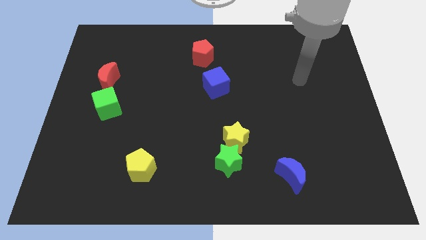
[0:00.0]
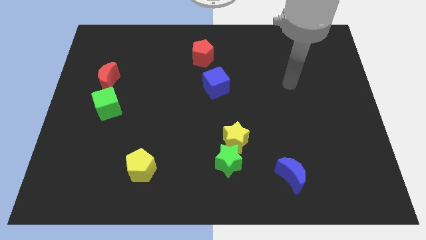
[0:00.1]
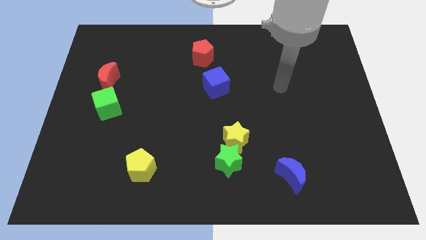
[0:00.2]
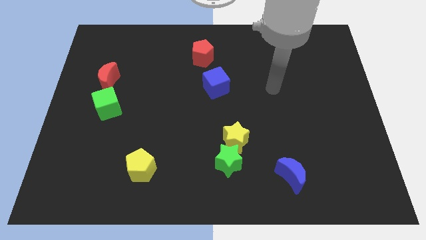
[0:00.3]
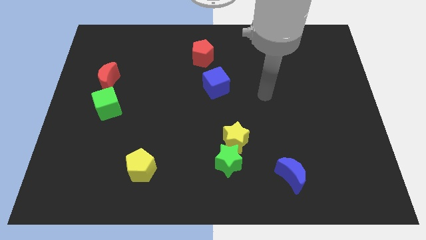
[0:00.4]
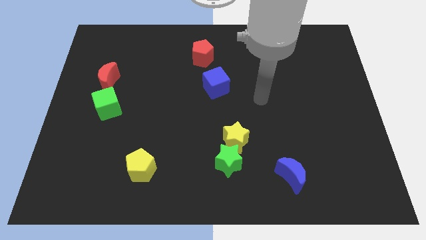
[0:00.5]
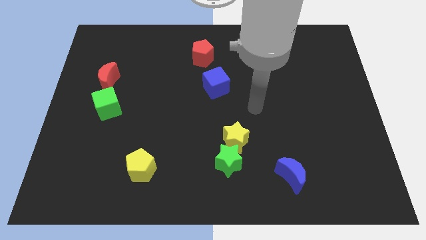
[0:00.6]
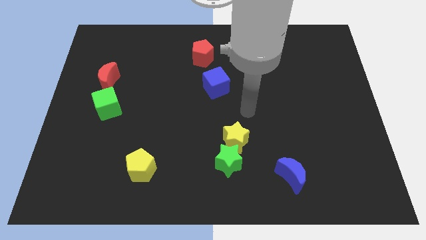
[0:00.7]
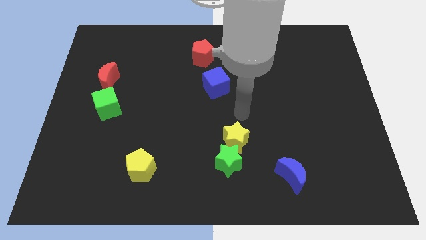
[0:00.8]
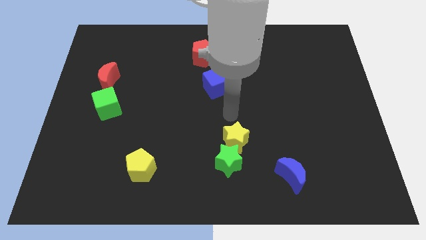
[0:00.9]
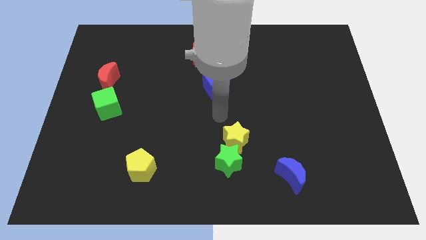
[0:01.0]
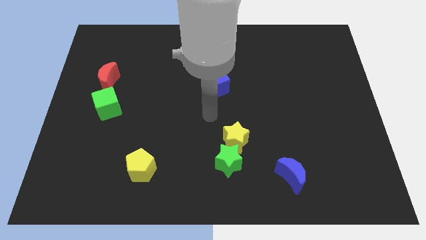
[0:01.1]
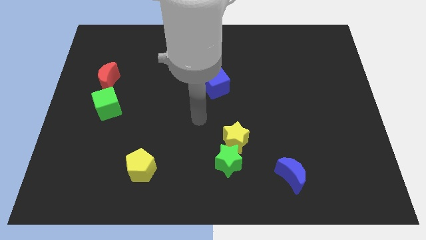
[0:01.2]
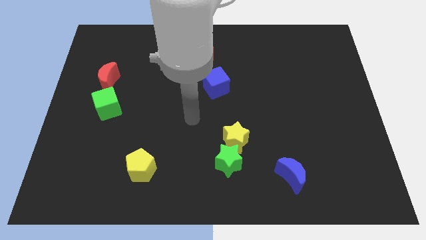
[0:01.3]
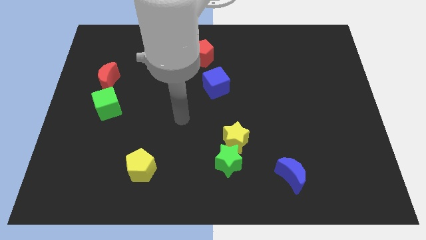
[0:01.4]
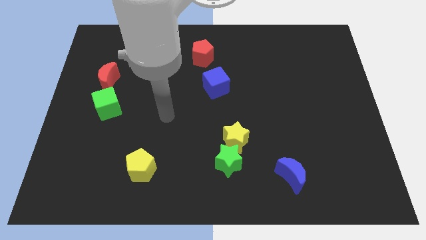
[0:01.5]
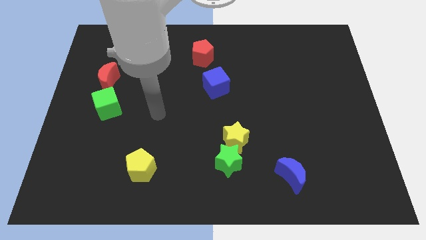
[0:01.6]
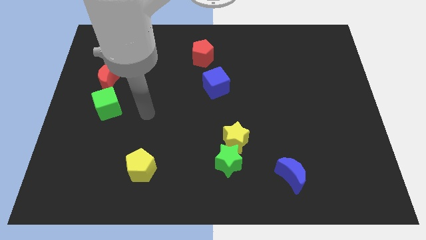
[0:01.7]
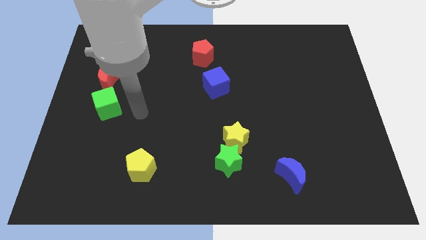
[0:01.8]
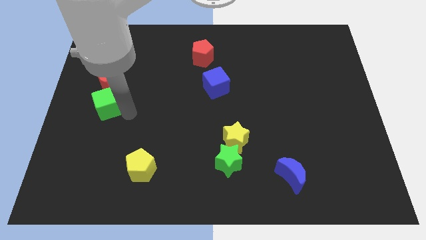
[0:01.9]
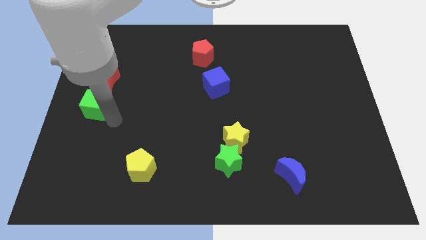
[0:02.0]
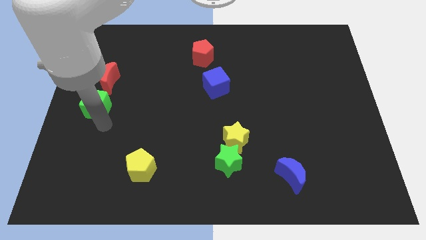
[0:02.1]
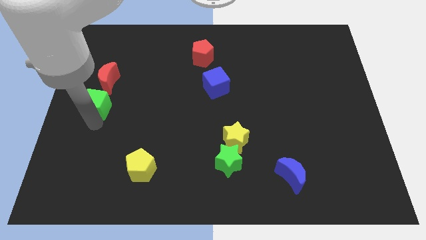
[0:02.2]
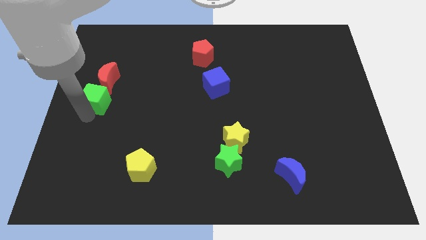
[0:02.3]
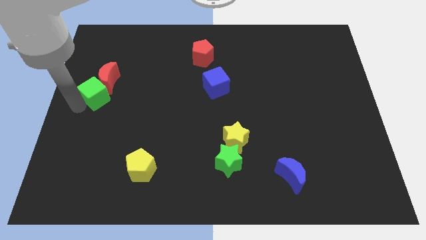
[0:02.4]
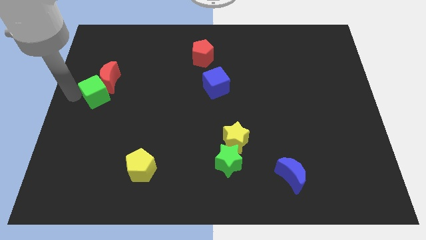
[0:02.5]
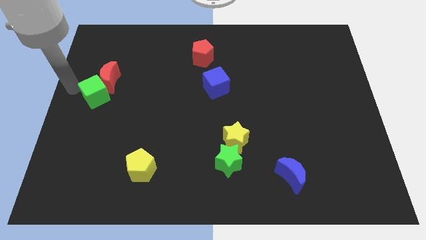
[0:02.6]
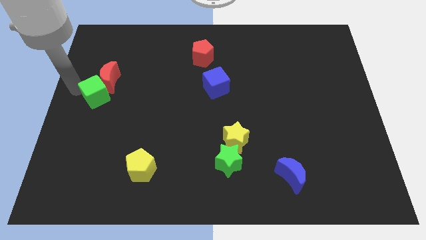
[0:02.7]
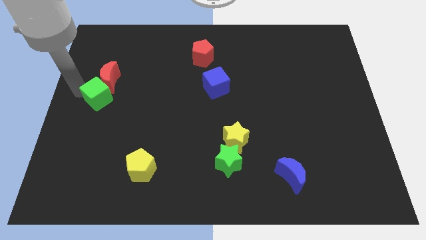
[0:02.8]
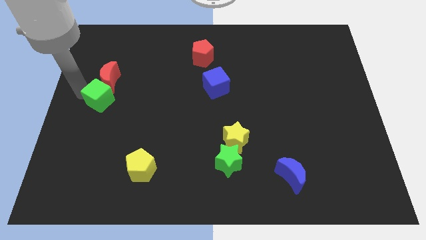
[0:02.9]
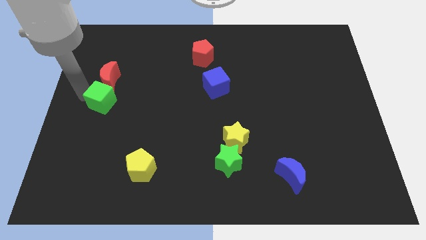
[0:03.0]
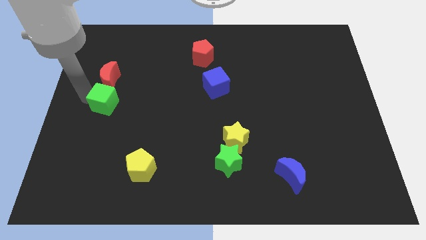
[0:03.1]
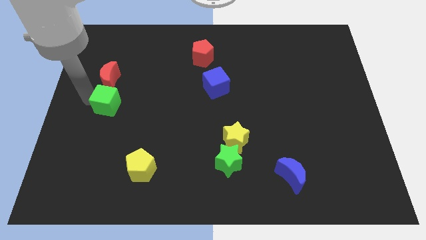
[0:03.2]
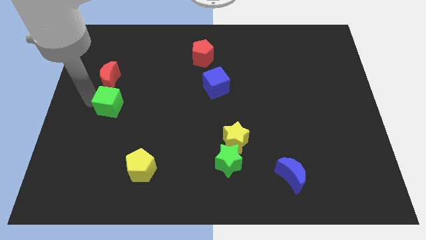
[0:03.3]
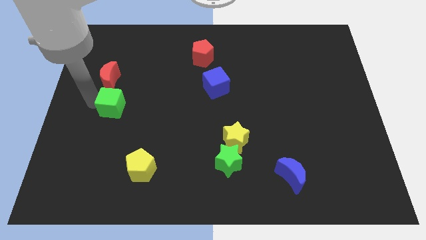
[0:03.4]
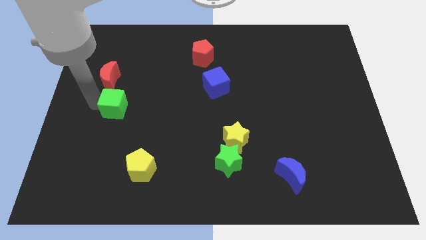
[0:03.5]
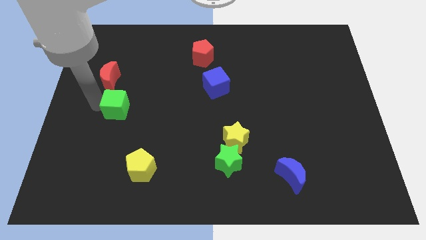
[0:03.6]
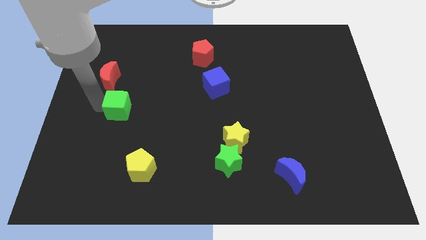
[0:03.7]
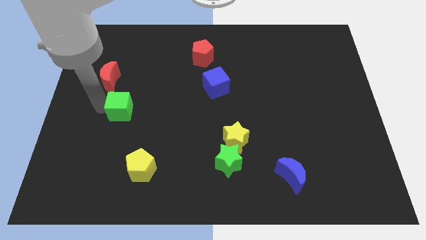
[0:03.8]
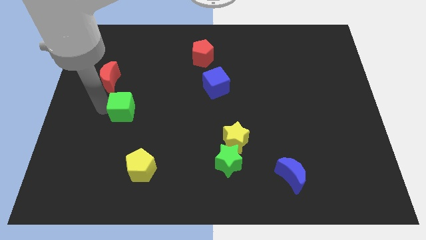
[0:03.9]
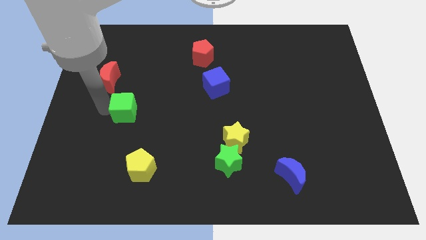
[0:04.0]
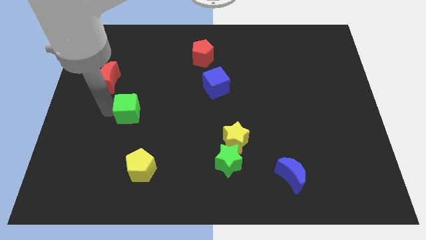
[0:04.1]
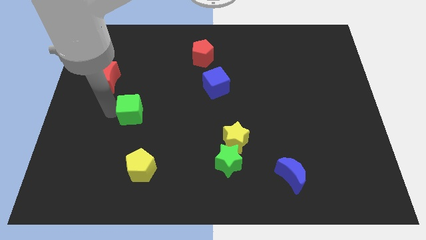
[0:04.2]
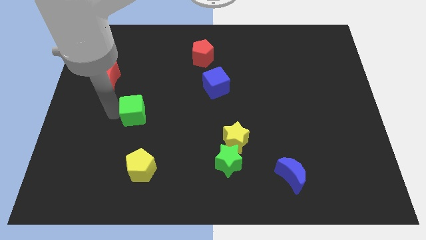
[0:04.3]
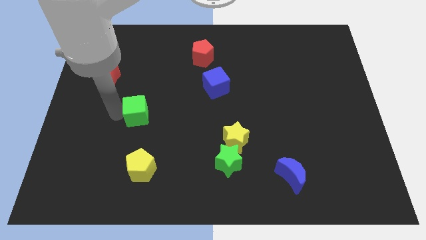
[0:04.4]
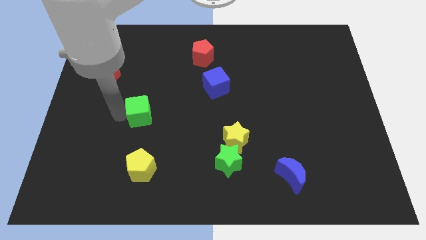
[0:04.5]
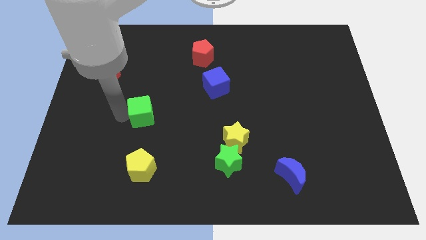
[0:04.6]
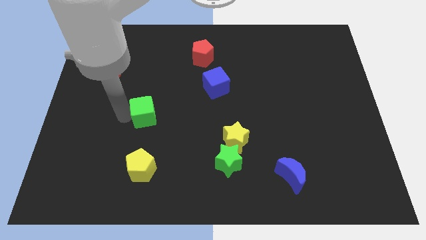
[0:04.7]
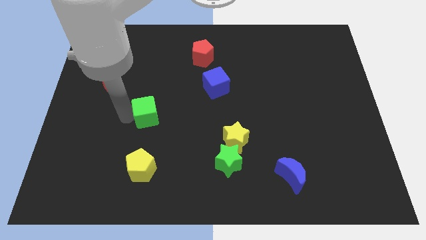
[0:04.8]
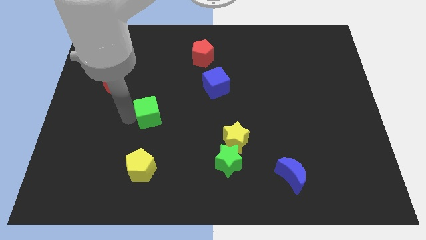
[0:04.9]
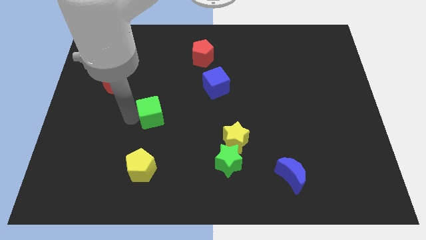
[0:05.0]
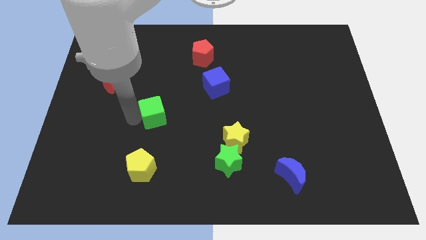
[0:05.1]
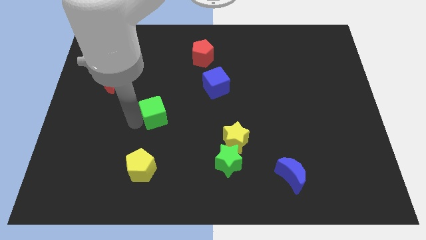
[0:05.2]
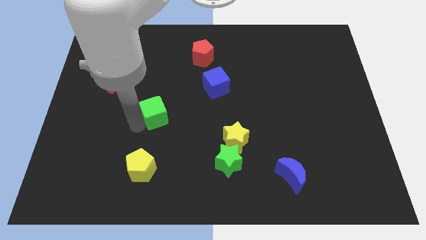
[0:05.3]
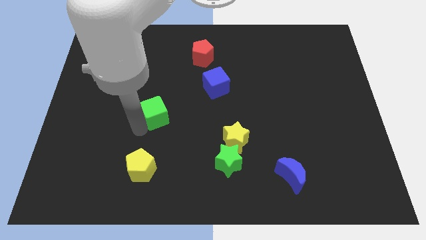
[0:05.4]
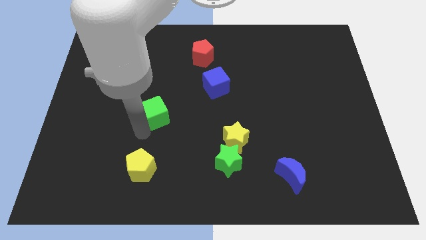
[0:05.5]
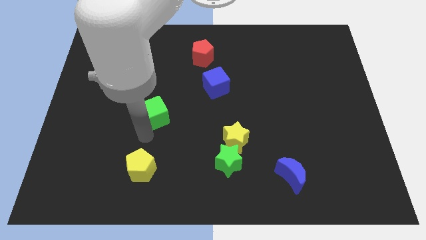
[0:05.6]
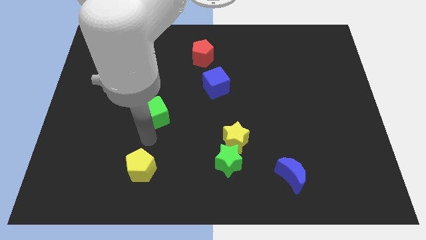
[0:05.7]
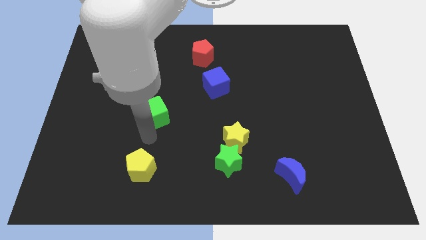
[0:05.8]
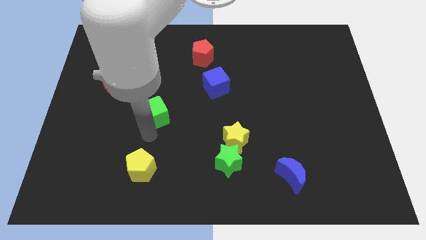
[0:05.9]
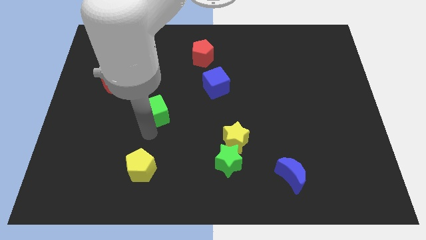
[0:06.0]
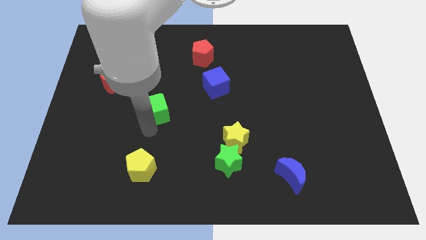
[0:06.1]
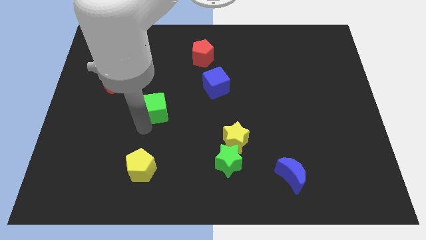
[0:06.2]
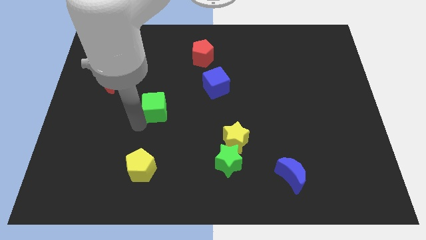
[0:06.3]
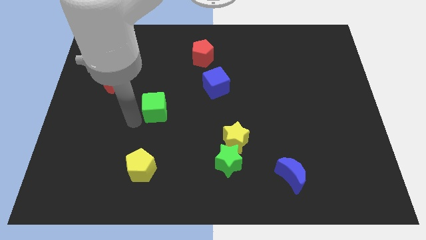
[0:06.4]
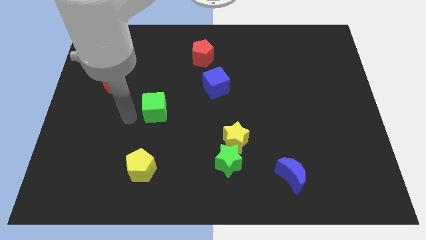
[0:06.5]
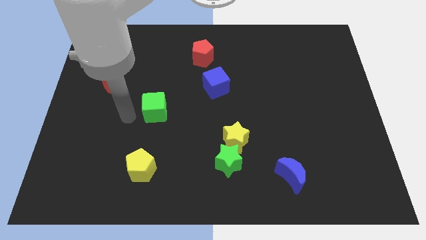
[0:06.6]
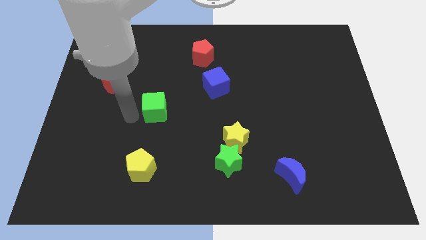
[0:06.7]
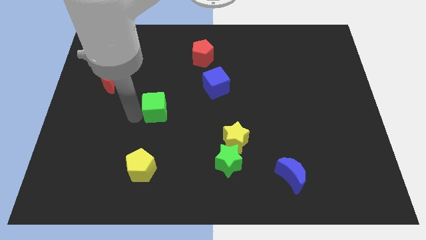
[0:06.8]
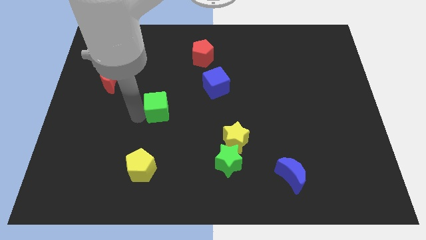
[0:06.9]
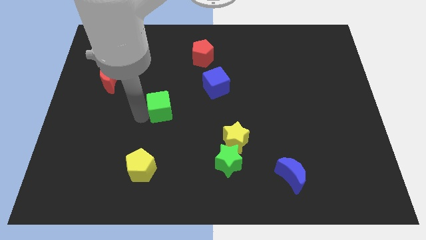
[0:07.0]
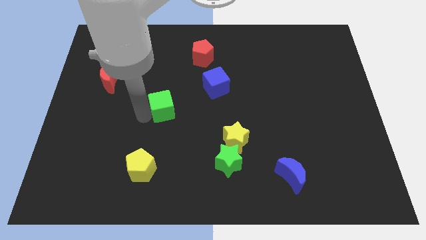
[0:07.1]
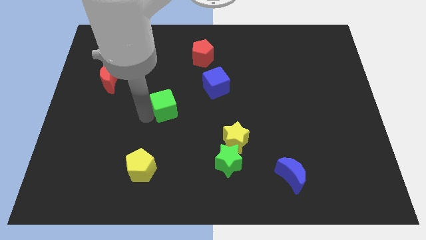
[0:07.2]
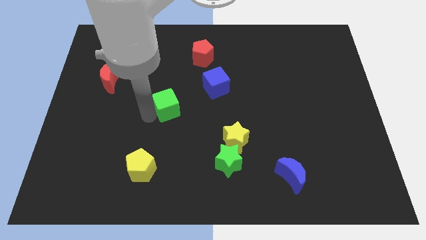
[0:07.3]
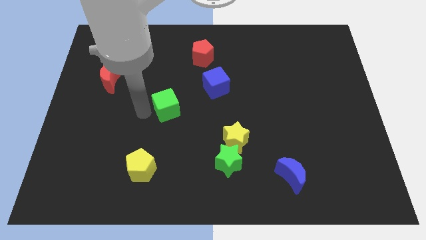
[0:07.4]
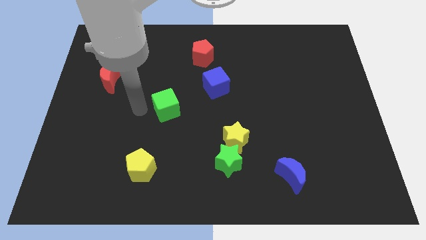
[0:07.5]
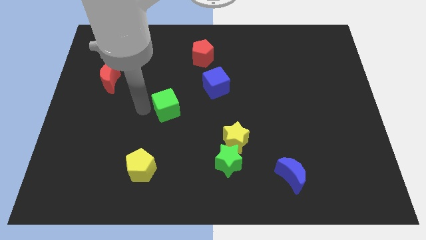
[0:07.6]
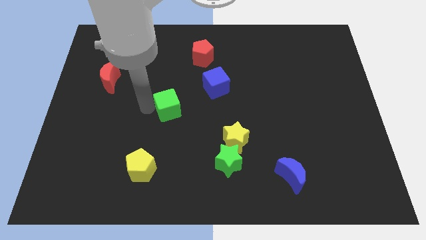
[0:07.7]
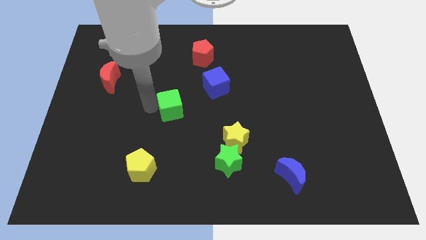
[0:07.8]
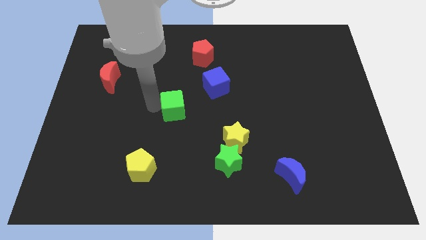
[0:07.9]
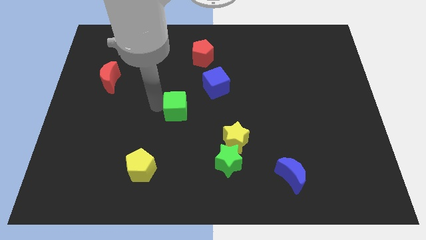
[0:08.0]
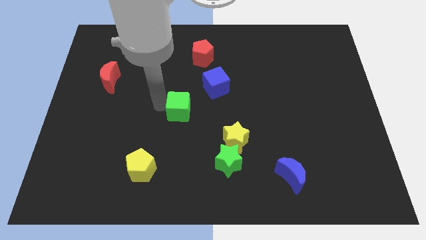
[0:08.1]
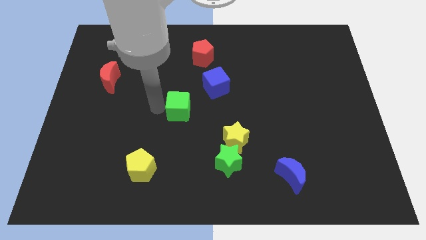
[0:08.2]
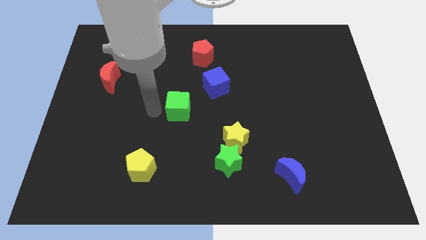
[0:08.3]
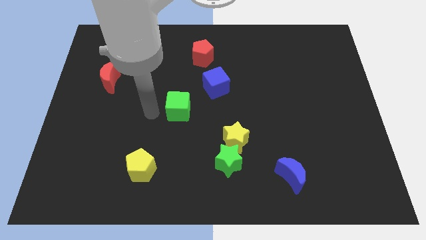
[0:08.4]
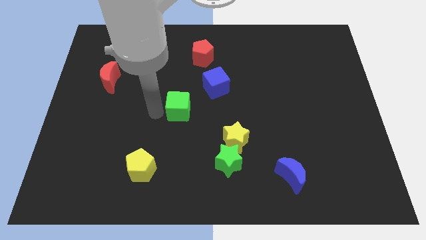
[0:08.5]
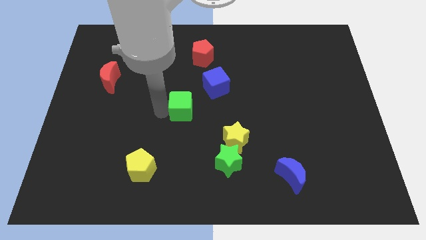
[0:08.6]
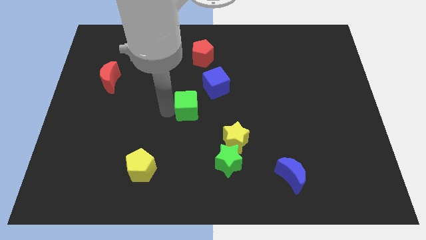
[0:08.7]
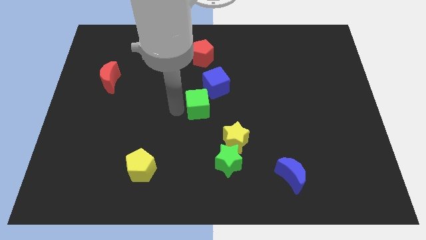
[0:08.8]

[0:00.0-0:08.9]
slide the green cube right
